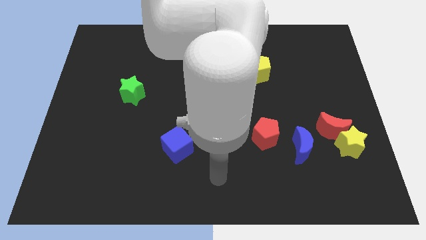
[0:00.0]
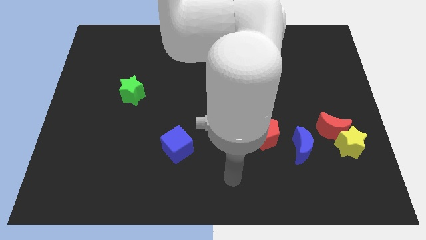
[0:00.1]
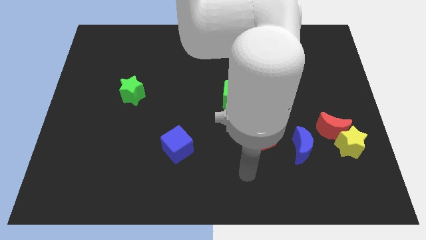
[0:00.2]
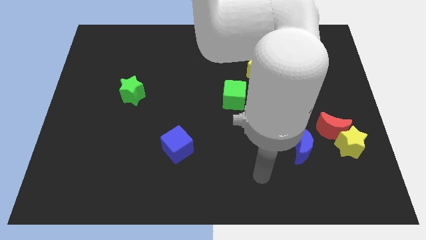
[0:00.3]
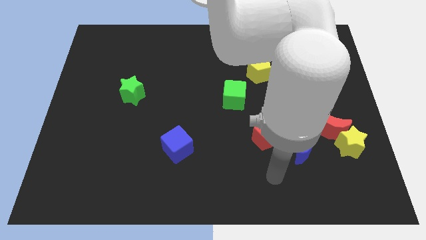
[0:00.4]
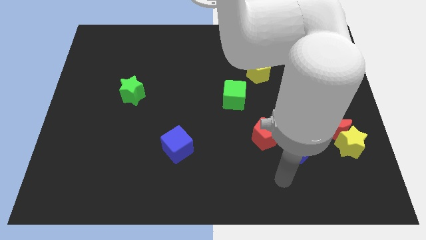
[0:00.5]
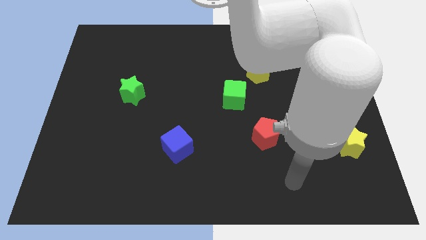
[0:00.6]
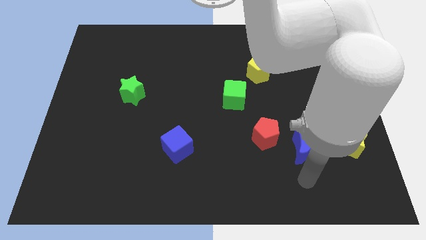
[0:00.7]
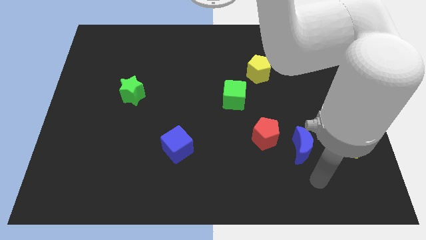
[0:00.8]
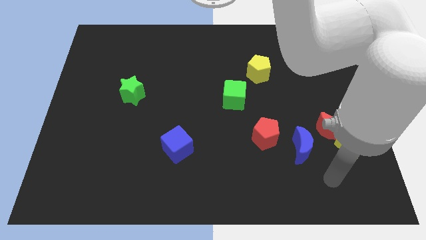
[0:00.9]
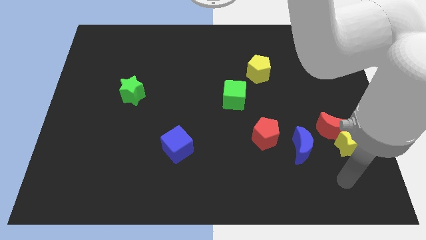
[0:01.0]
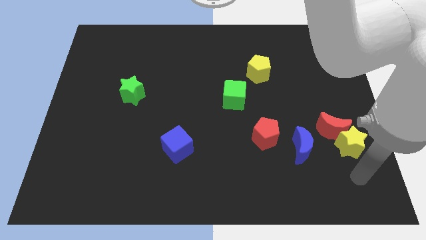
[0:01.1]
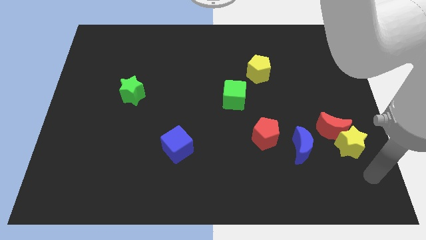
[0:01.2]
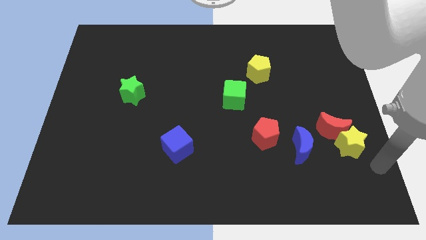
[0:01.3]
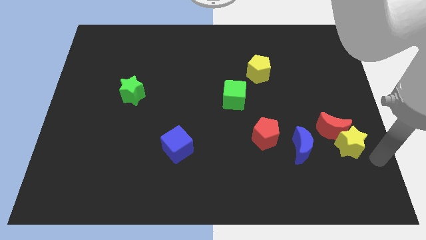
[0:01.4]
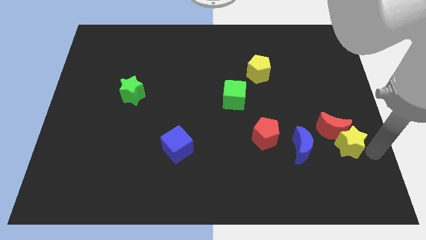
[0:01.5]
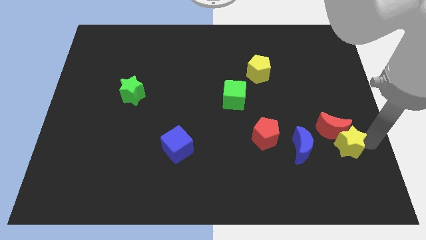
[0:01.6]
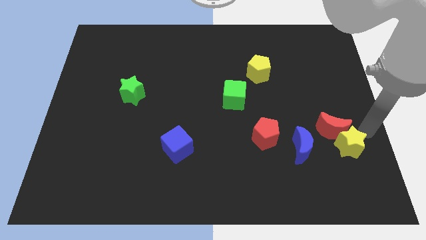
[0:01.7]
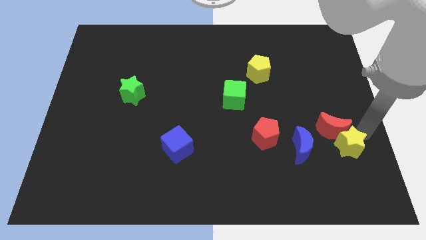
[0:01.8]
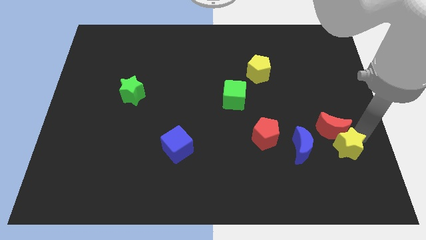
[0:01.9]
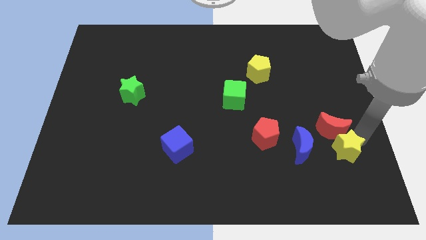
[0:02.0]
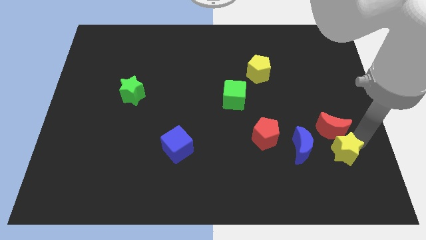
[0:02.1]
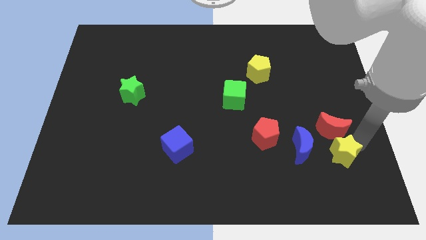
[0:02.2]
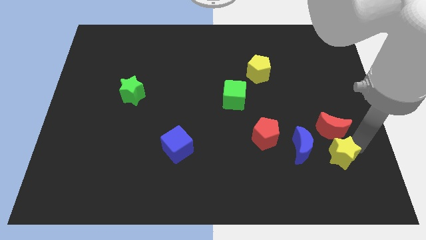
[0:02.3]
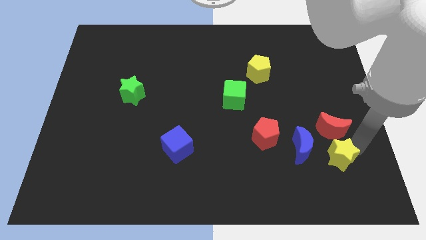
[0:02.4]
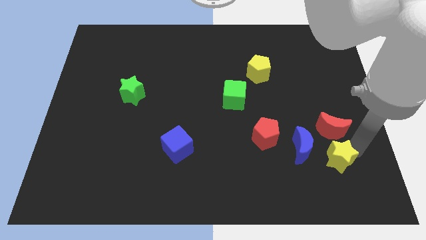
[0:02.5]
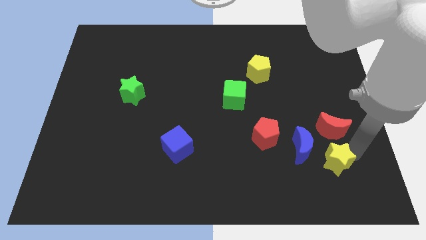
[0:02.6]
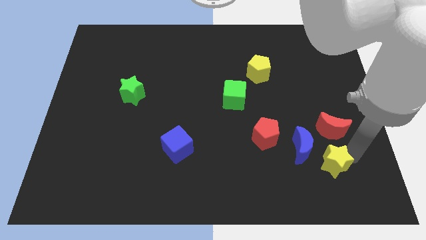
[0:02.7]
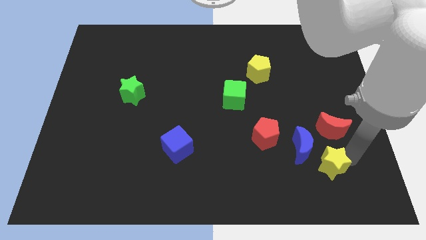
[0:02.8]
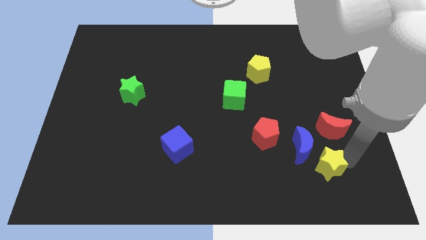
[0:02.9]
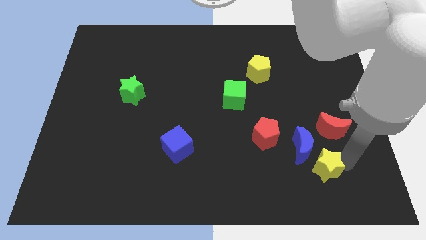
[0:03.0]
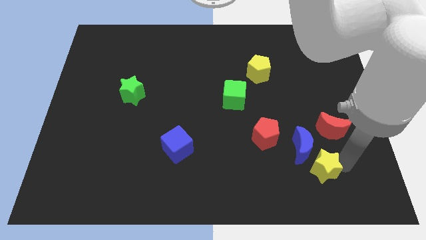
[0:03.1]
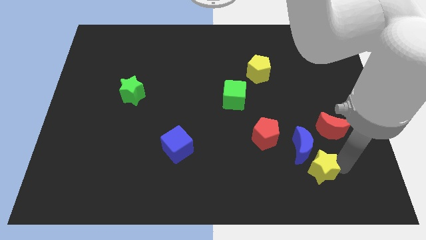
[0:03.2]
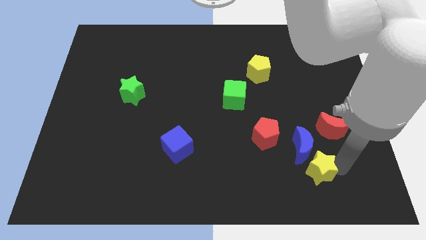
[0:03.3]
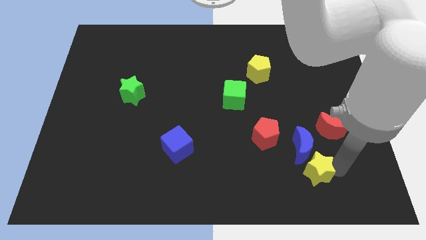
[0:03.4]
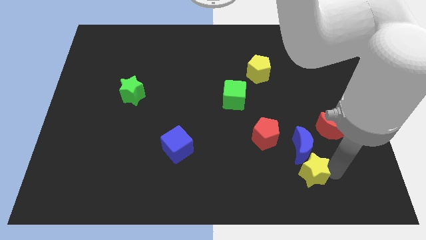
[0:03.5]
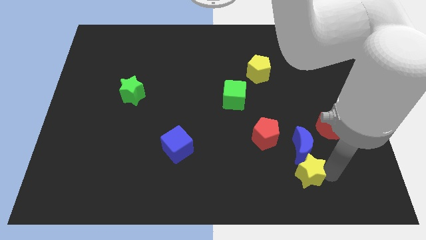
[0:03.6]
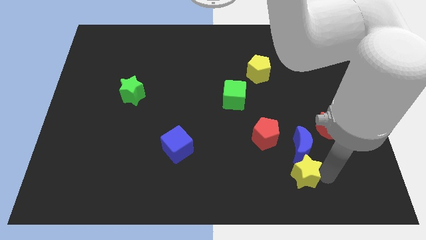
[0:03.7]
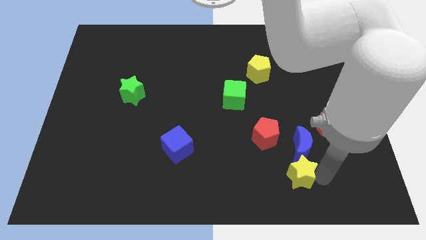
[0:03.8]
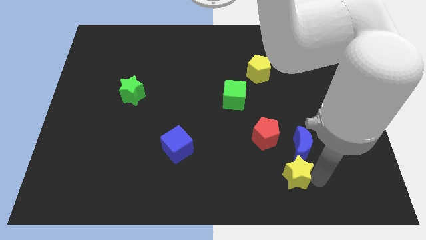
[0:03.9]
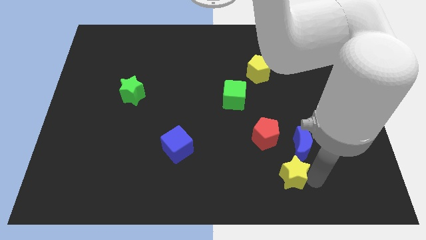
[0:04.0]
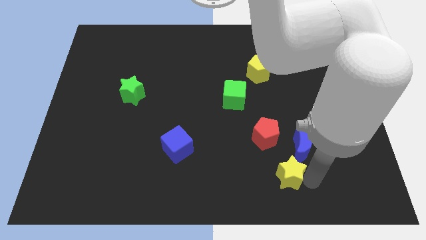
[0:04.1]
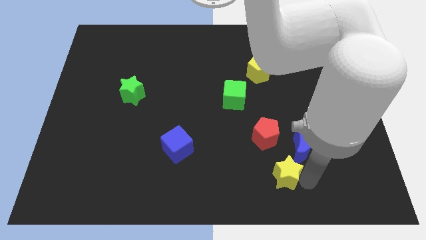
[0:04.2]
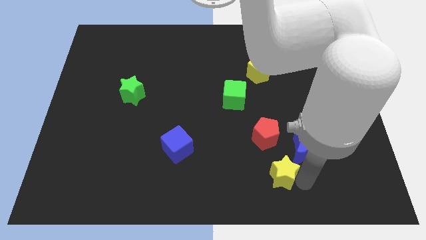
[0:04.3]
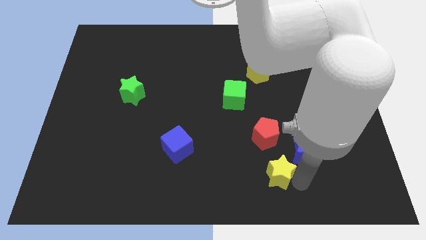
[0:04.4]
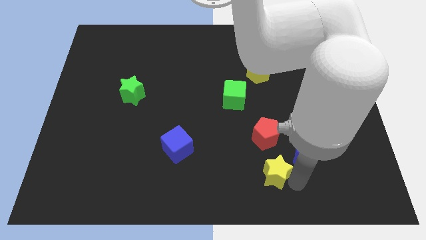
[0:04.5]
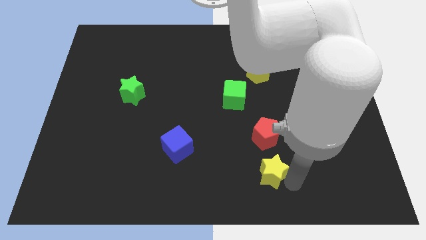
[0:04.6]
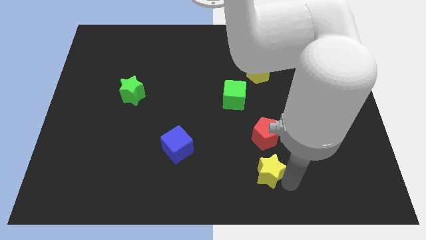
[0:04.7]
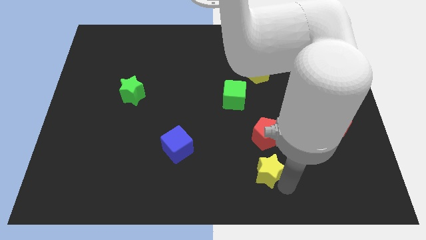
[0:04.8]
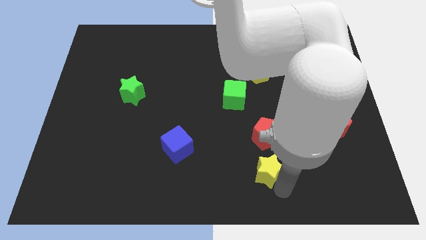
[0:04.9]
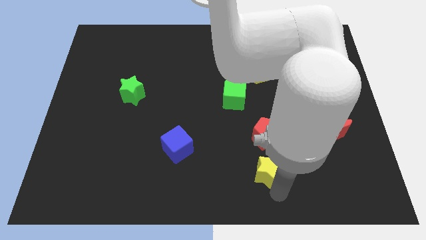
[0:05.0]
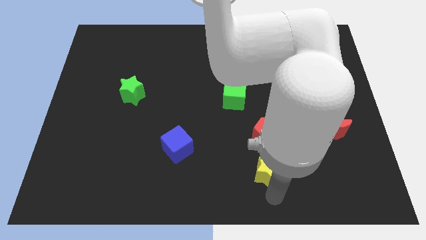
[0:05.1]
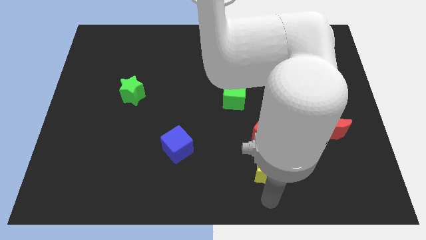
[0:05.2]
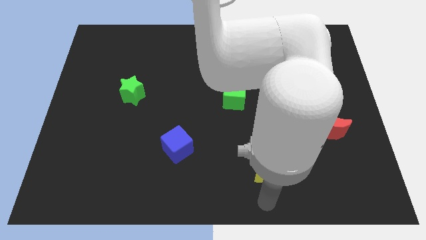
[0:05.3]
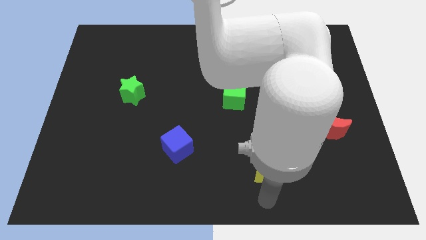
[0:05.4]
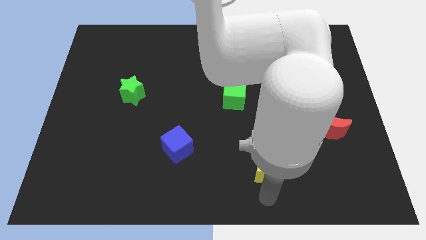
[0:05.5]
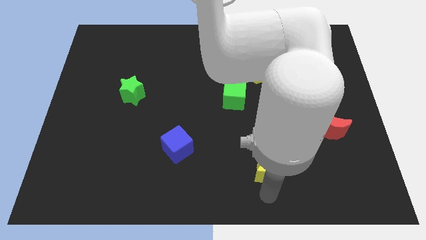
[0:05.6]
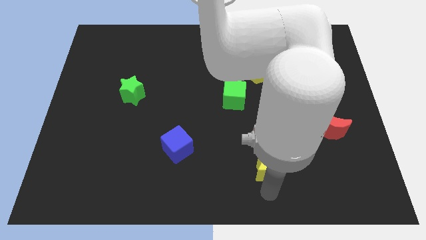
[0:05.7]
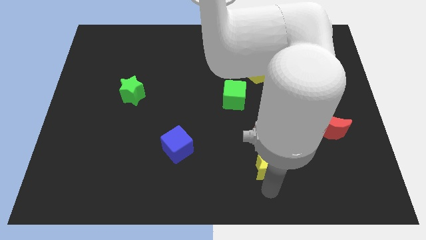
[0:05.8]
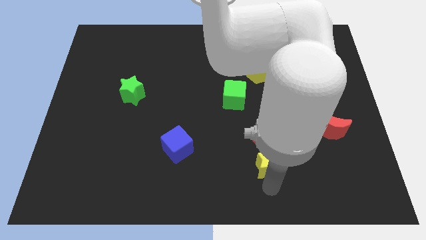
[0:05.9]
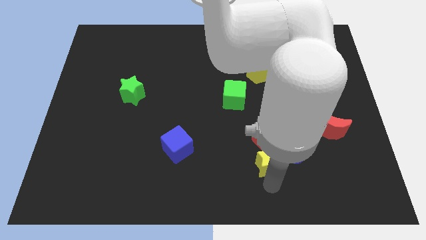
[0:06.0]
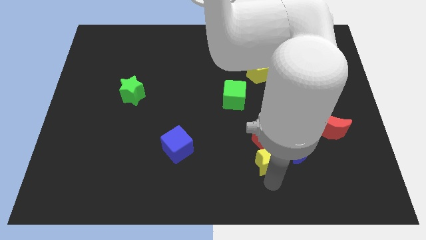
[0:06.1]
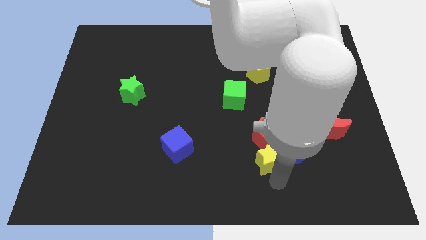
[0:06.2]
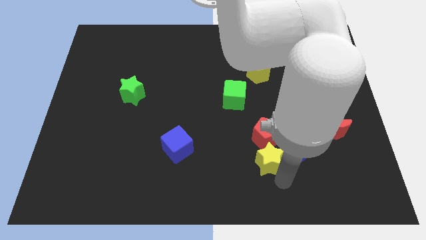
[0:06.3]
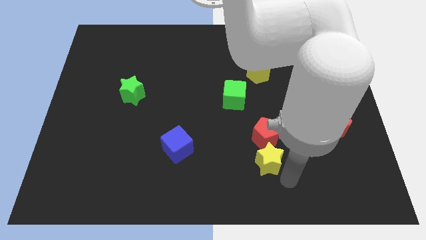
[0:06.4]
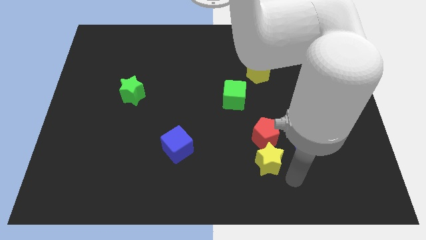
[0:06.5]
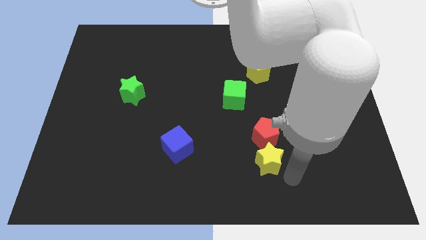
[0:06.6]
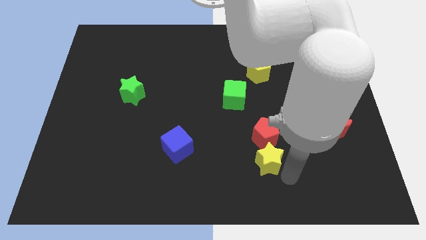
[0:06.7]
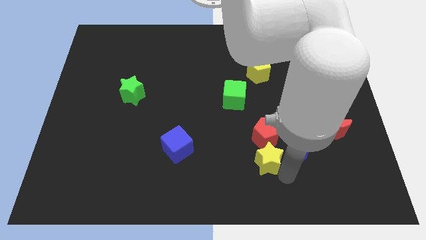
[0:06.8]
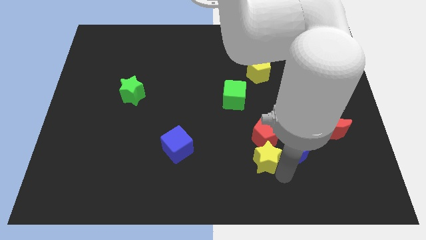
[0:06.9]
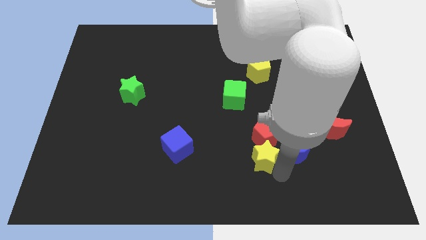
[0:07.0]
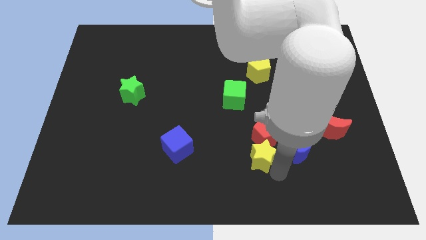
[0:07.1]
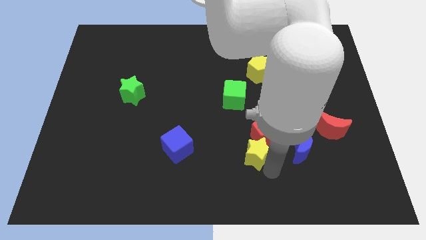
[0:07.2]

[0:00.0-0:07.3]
slide the yellow star to the left

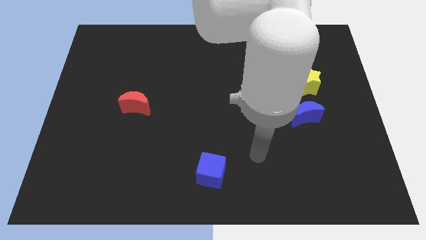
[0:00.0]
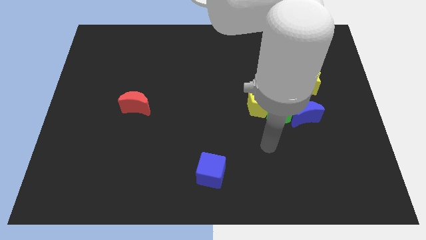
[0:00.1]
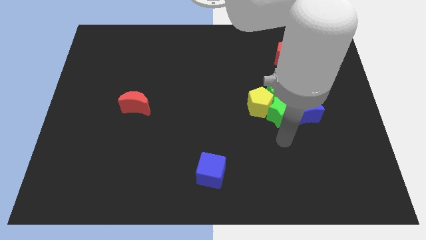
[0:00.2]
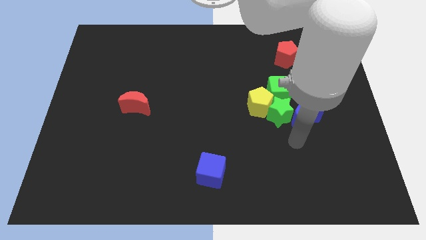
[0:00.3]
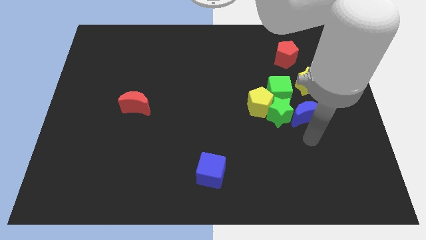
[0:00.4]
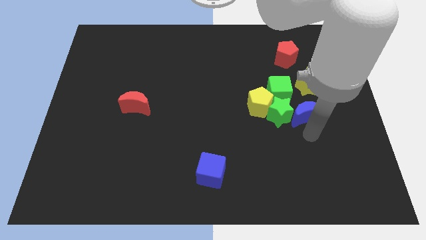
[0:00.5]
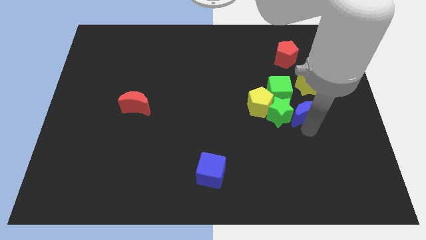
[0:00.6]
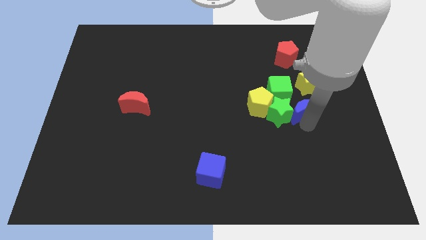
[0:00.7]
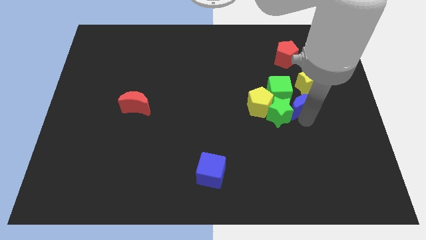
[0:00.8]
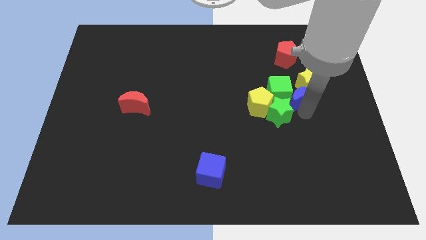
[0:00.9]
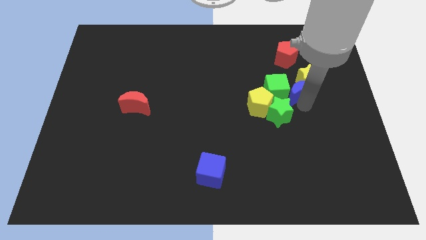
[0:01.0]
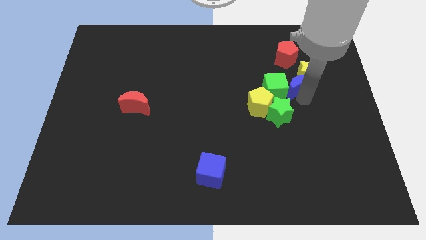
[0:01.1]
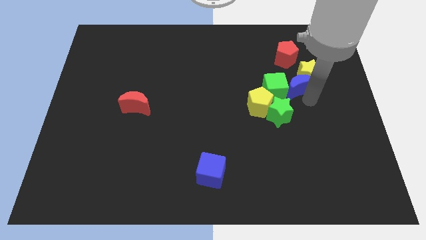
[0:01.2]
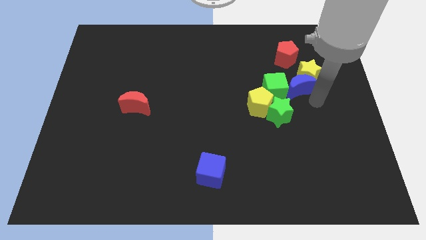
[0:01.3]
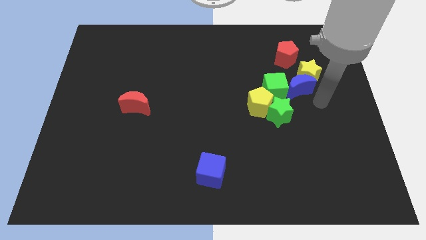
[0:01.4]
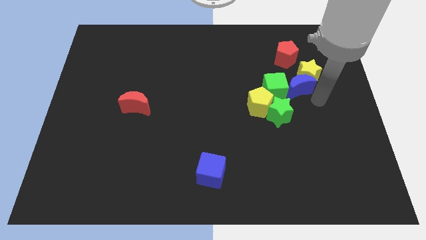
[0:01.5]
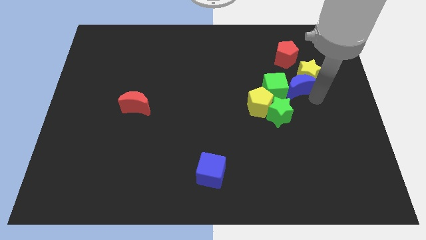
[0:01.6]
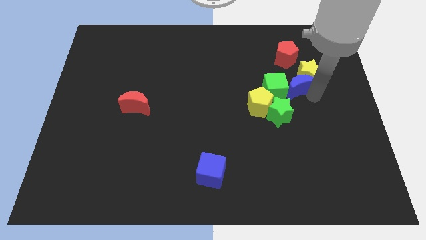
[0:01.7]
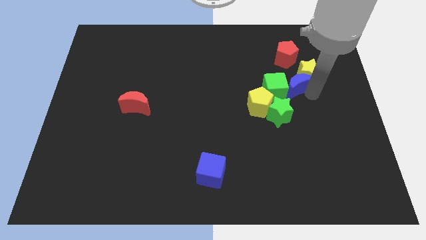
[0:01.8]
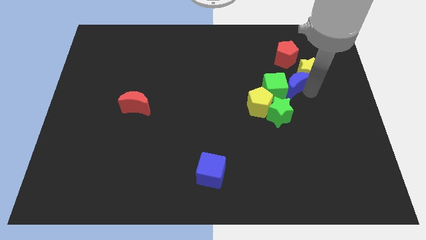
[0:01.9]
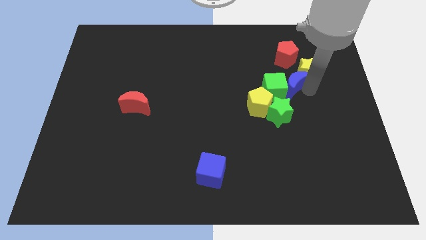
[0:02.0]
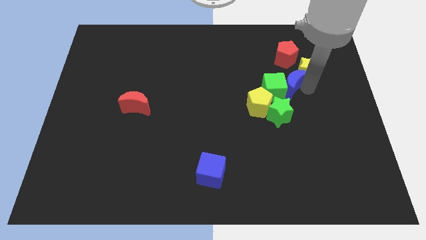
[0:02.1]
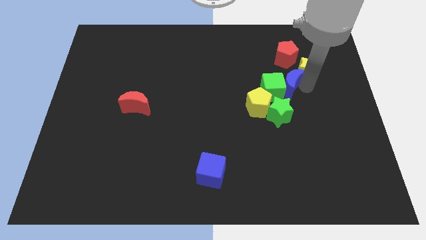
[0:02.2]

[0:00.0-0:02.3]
slide the blue moon slightly up and to the left diagonally
